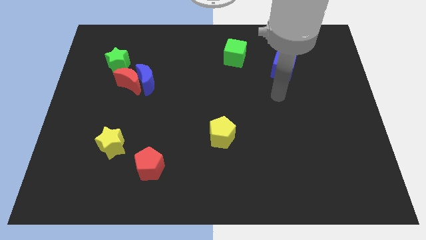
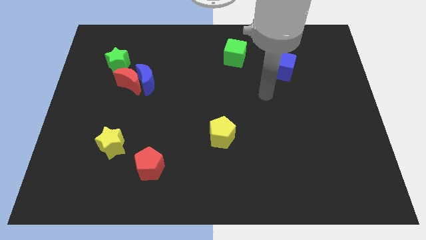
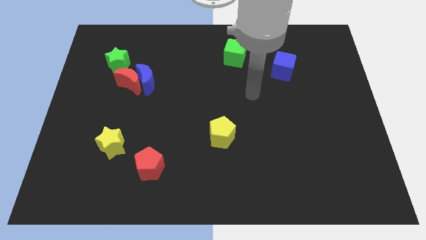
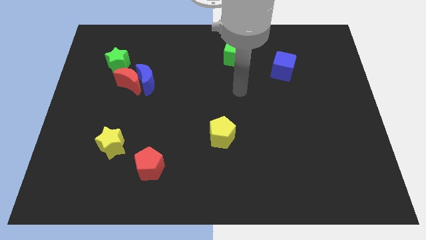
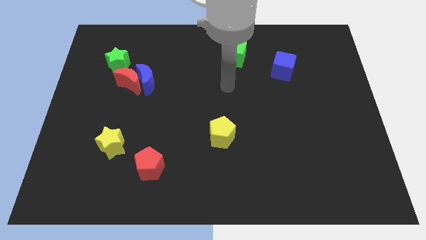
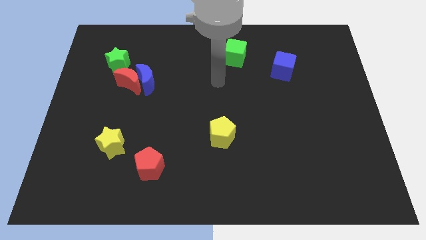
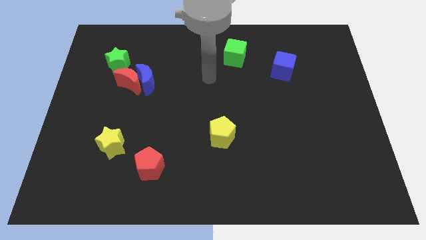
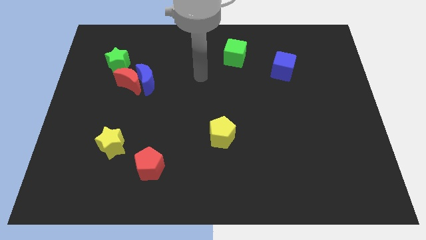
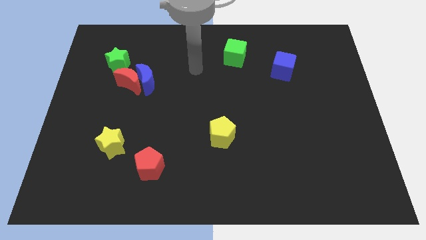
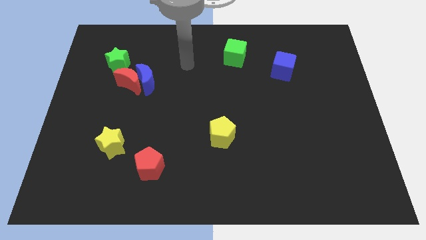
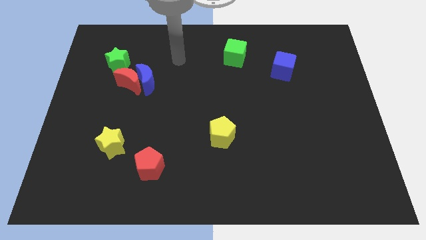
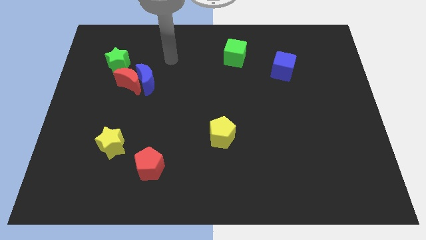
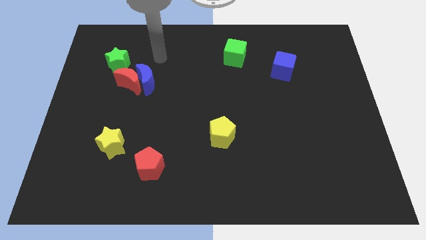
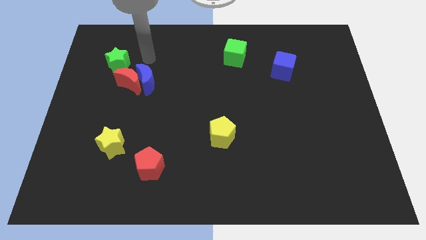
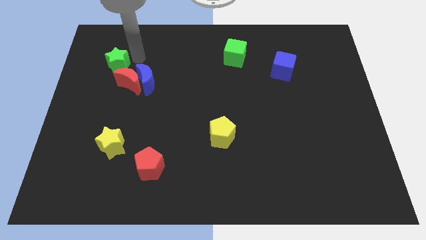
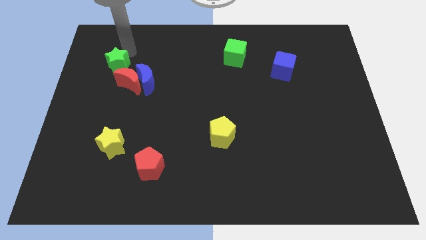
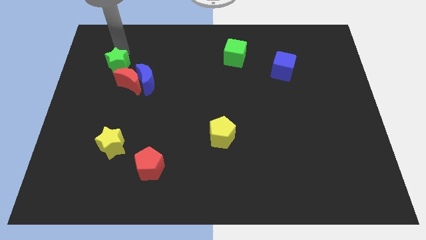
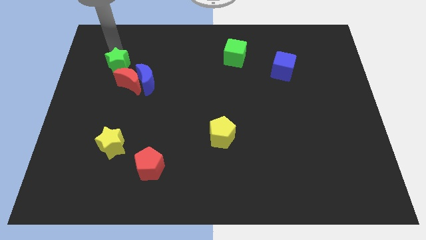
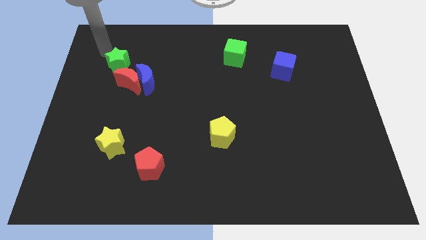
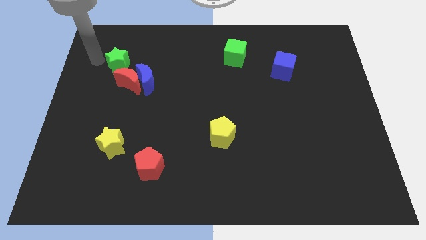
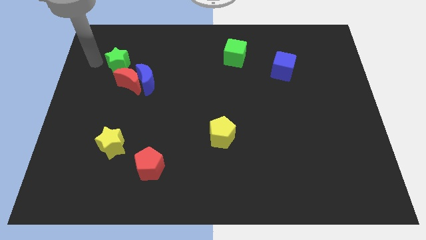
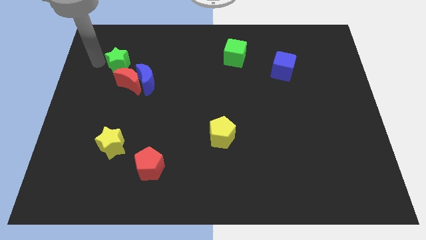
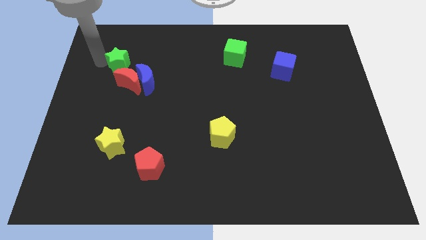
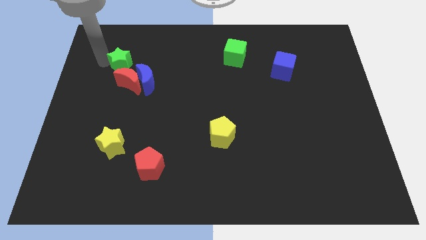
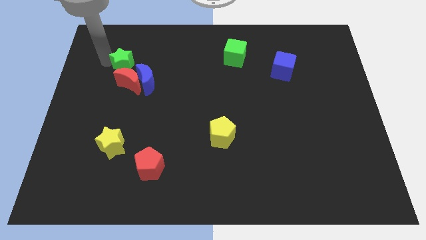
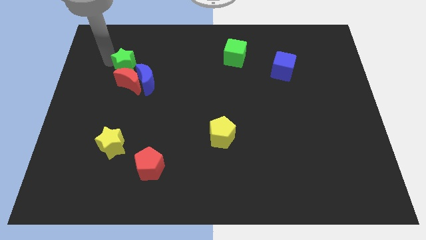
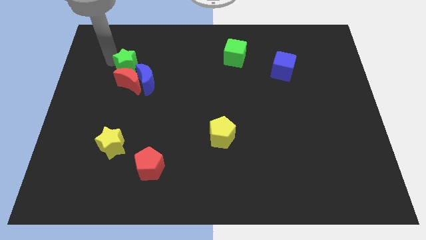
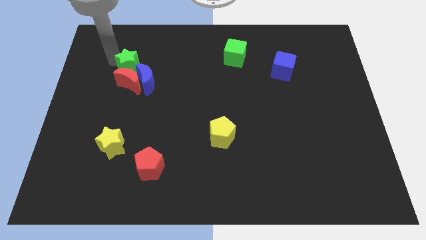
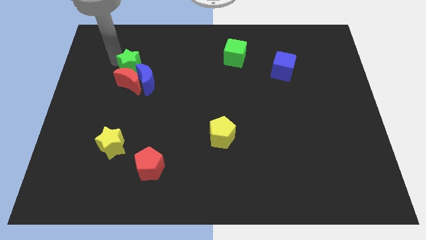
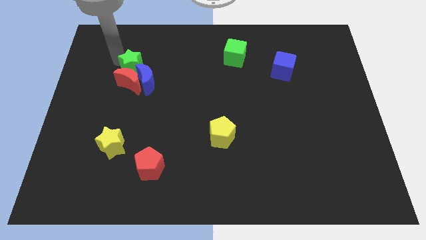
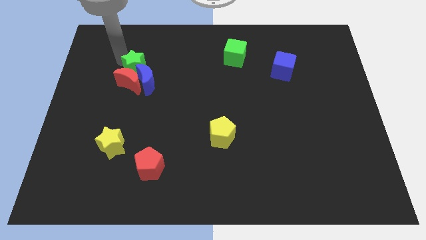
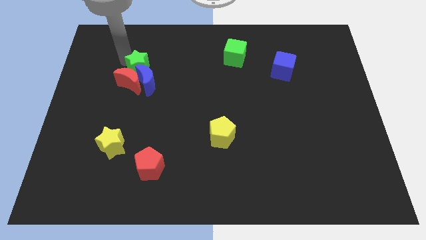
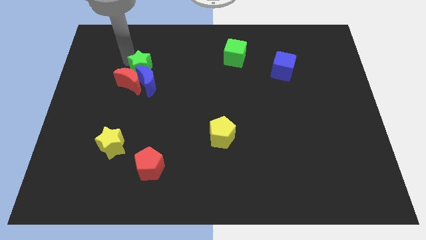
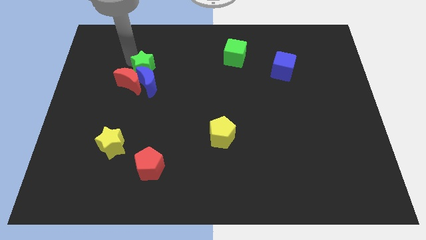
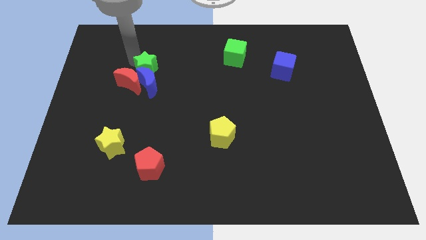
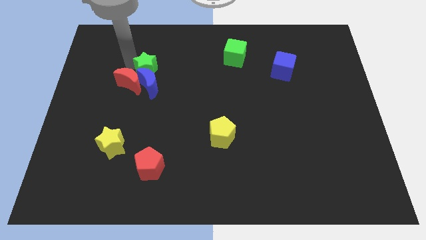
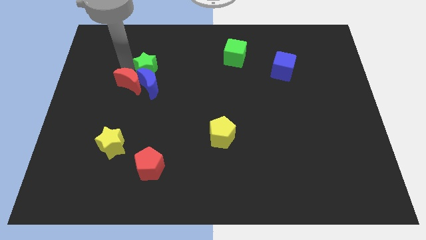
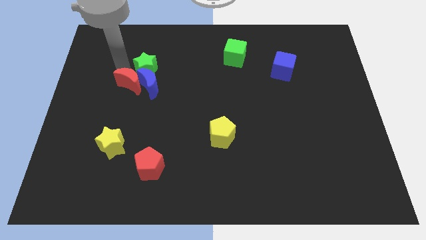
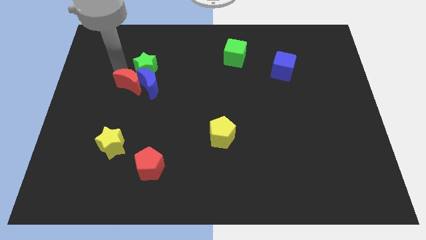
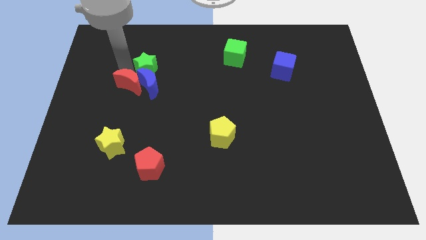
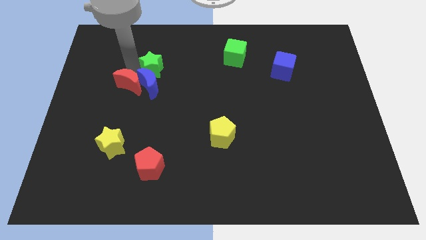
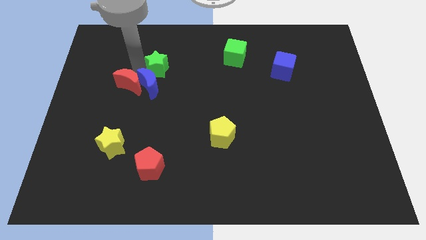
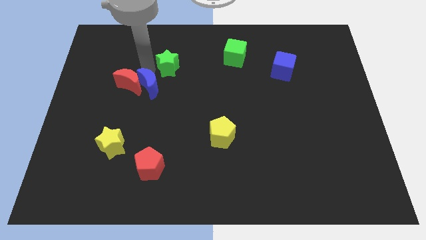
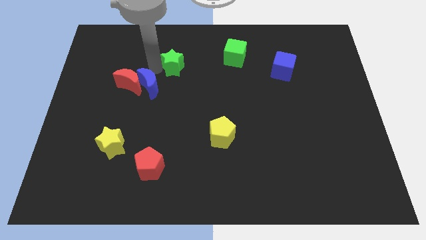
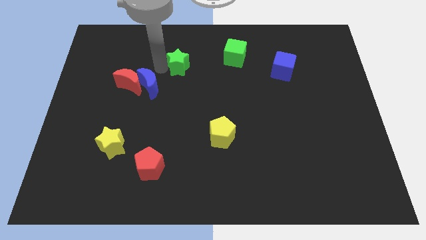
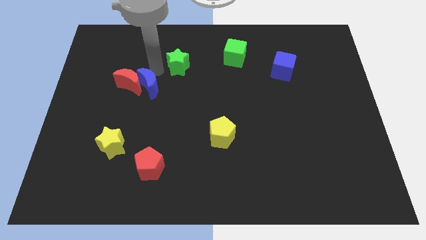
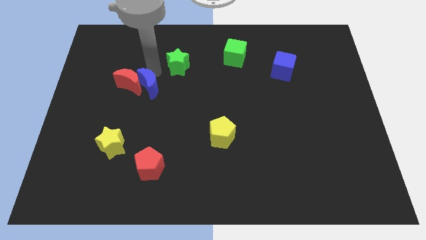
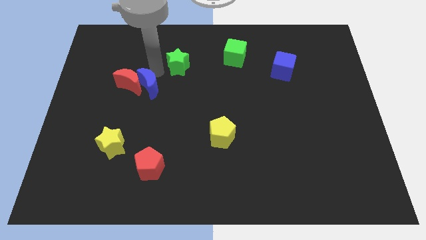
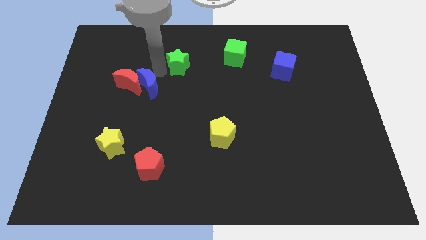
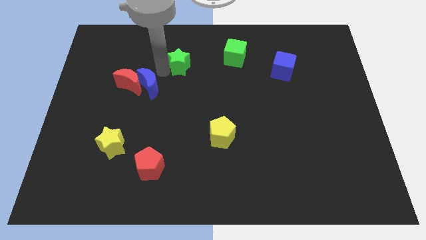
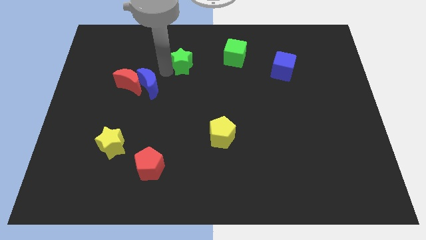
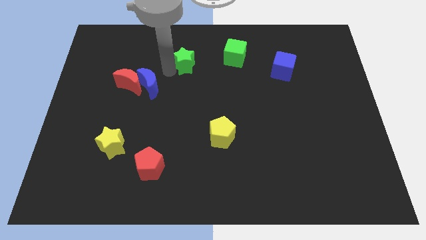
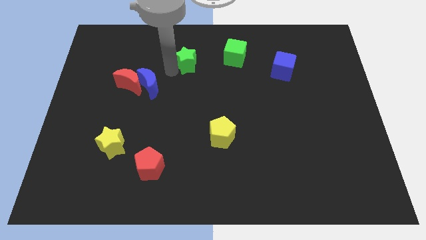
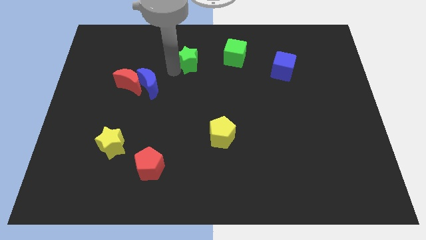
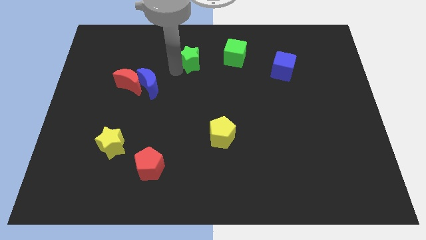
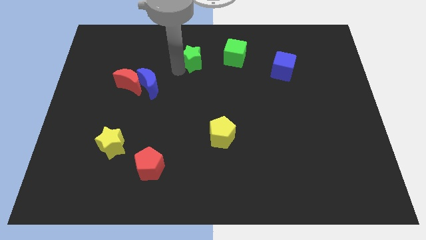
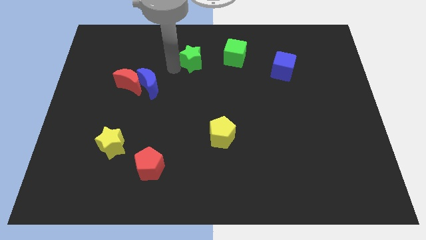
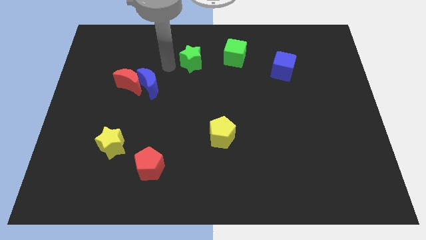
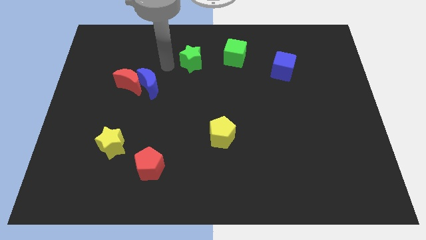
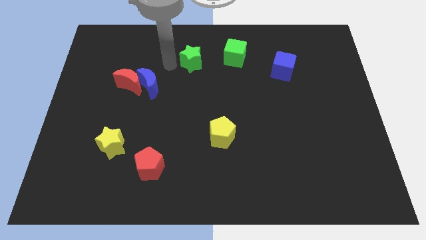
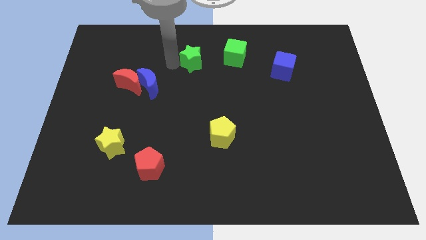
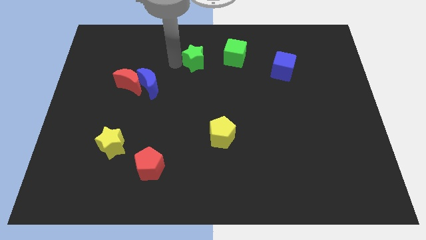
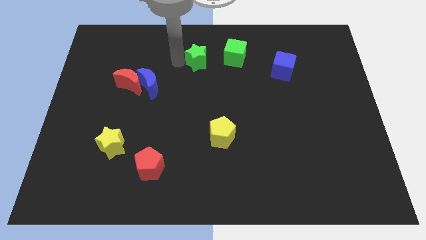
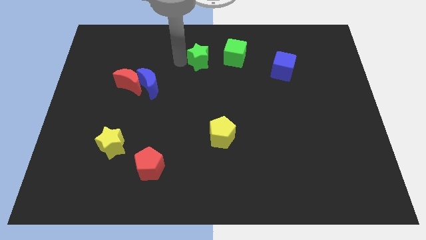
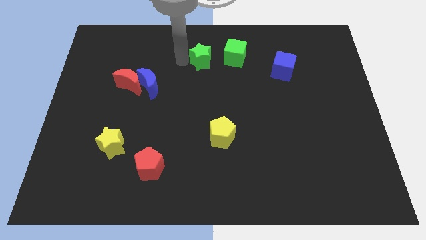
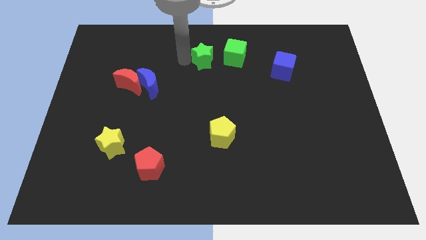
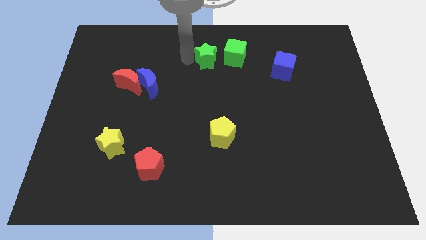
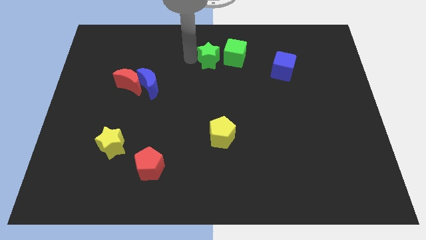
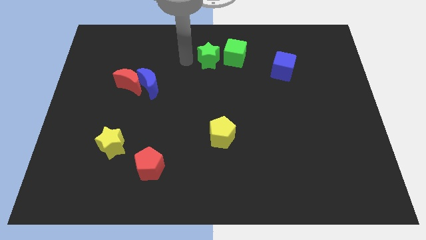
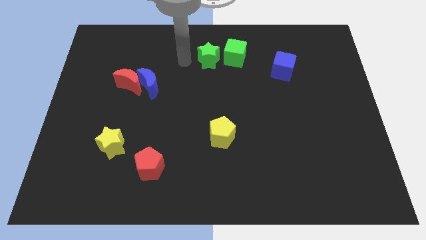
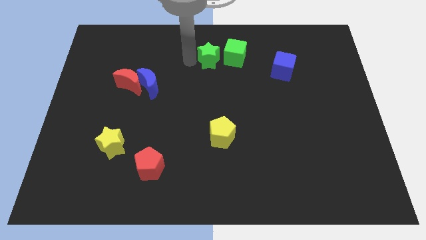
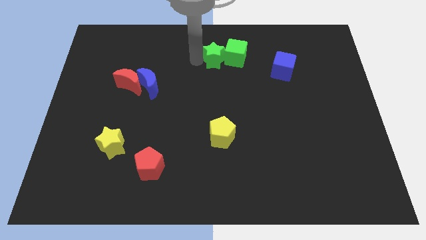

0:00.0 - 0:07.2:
push the green star towards the green cube
